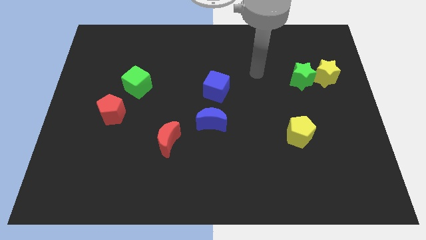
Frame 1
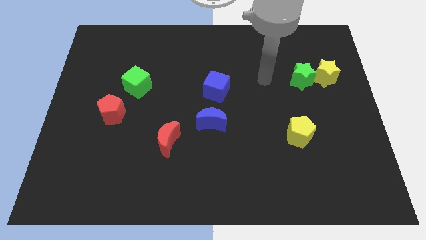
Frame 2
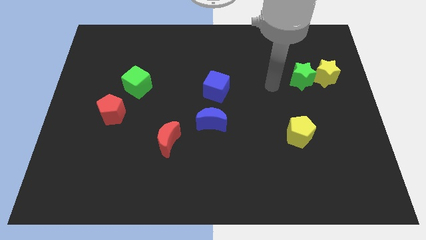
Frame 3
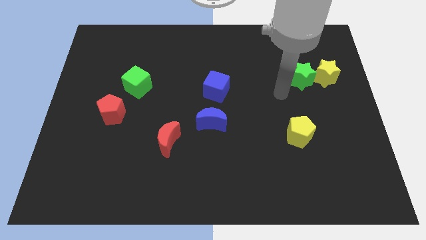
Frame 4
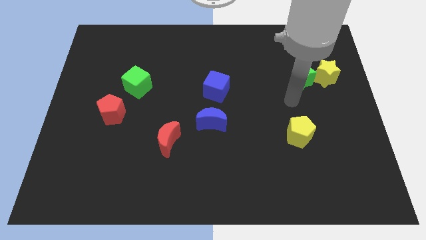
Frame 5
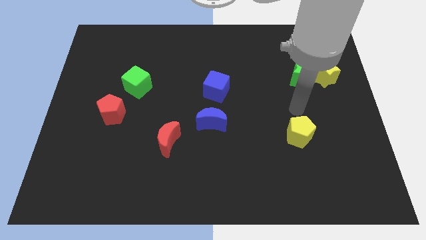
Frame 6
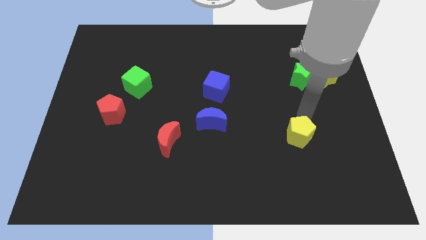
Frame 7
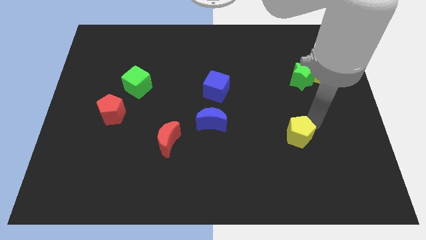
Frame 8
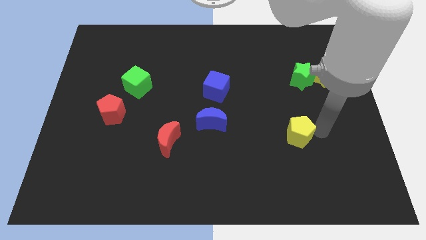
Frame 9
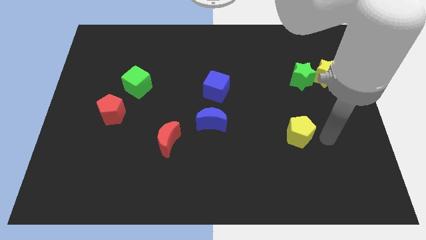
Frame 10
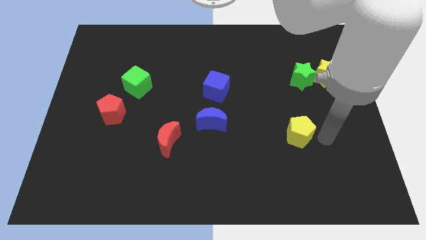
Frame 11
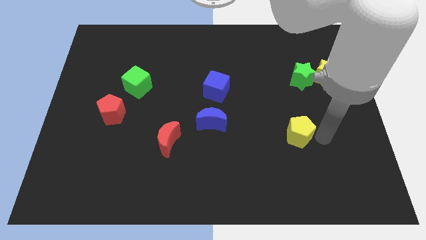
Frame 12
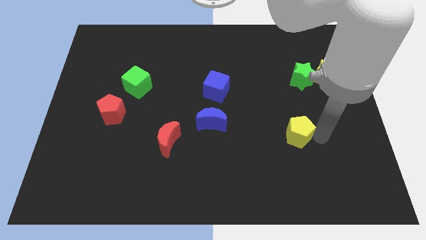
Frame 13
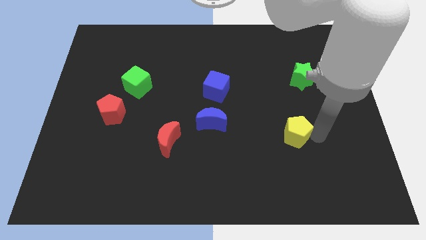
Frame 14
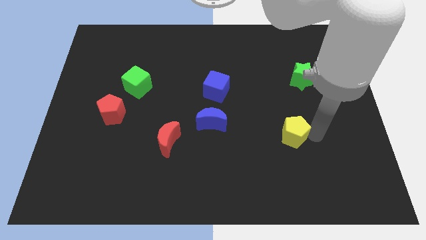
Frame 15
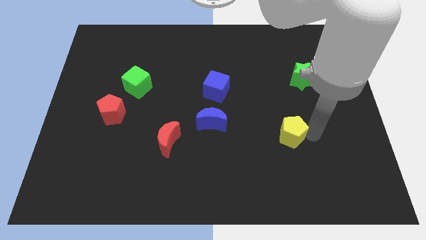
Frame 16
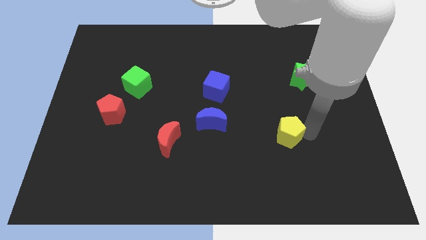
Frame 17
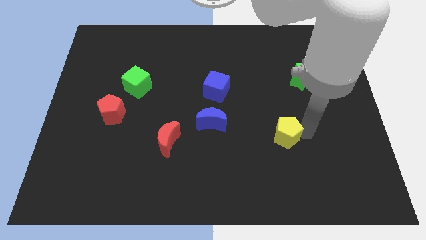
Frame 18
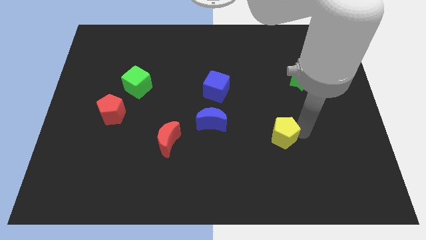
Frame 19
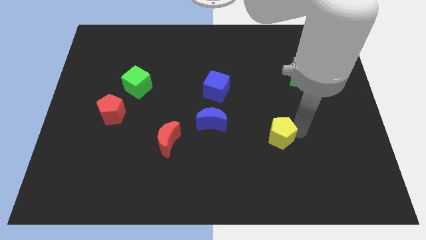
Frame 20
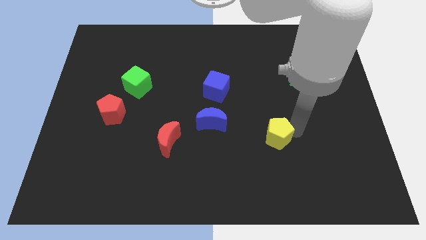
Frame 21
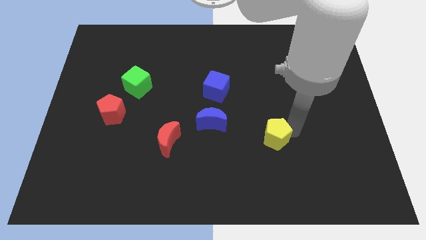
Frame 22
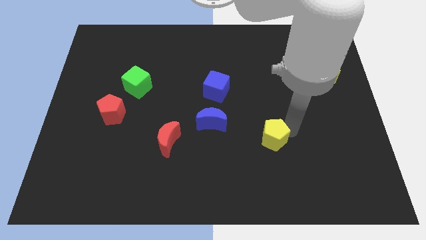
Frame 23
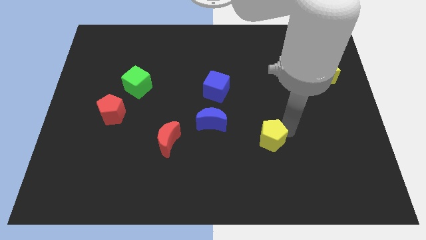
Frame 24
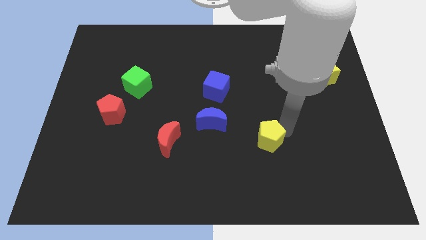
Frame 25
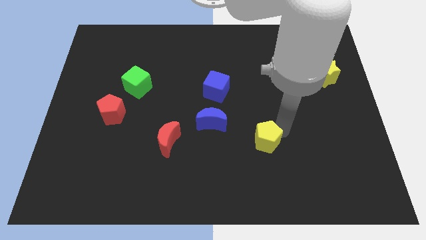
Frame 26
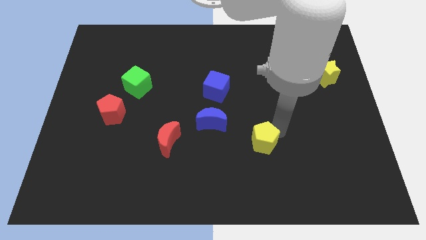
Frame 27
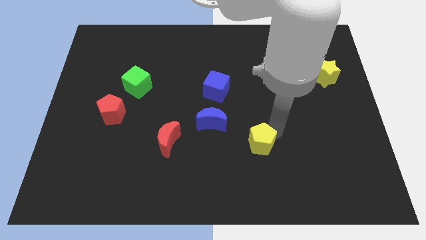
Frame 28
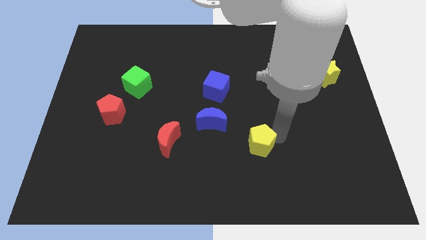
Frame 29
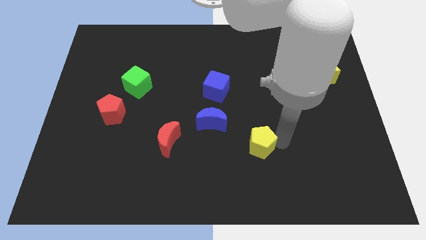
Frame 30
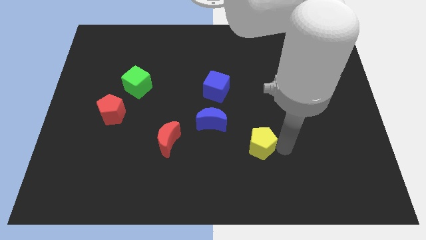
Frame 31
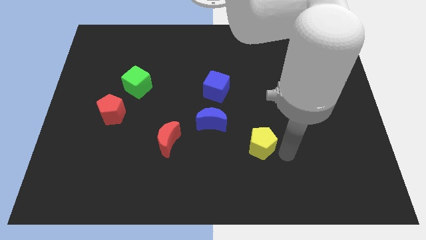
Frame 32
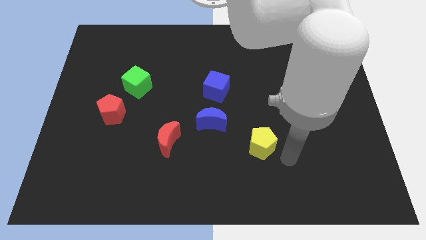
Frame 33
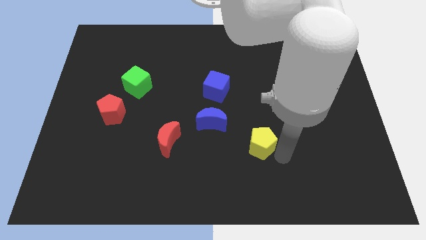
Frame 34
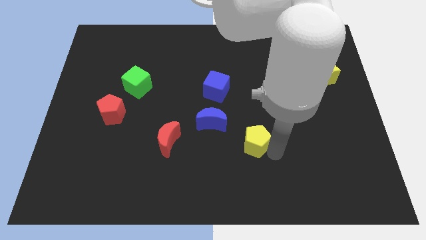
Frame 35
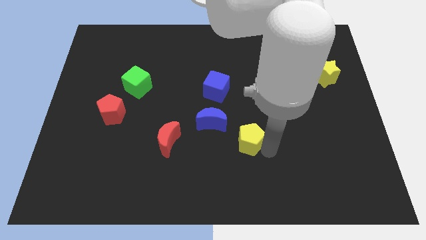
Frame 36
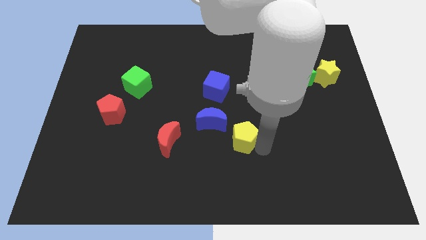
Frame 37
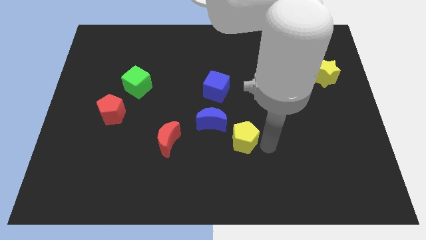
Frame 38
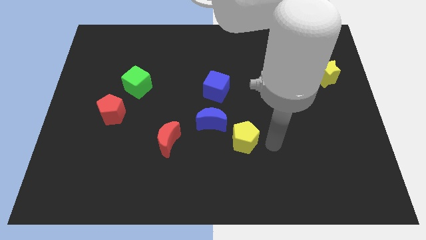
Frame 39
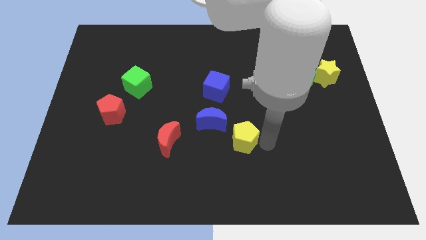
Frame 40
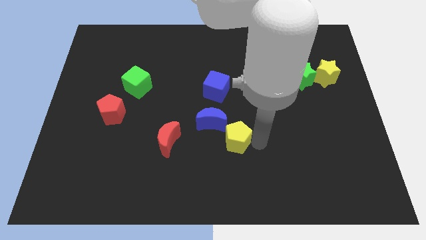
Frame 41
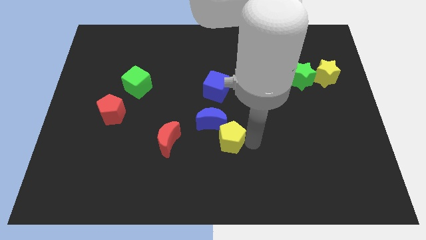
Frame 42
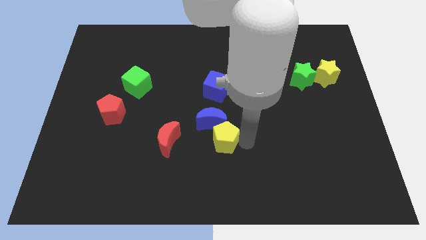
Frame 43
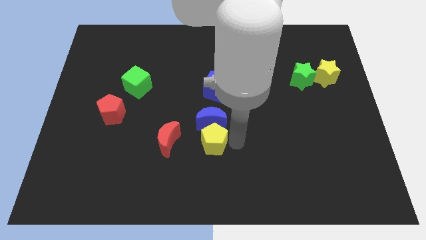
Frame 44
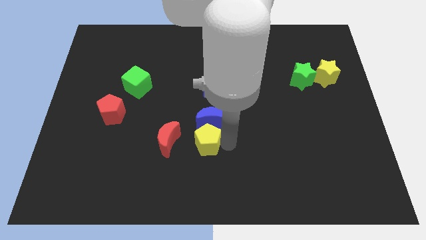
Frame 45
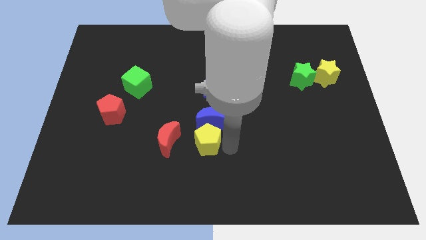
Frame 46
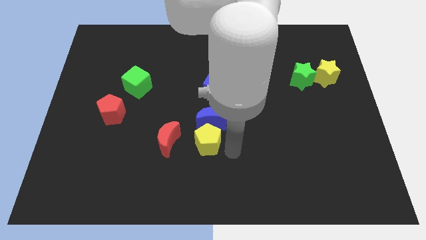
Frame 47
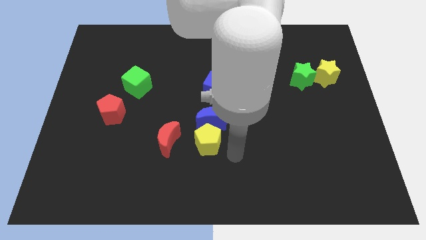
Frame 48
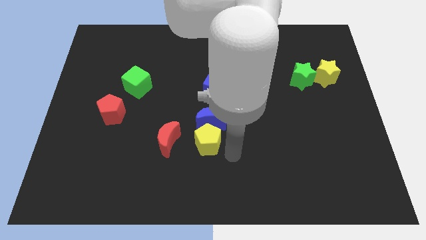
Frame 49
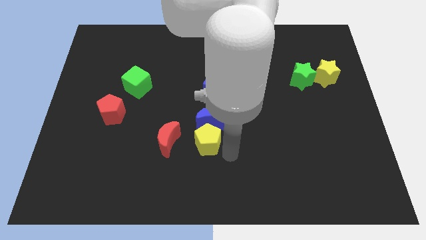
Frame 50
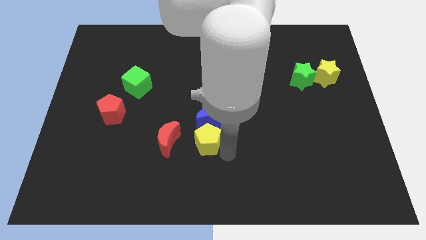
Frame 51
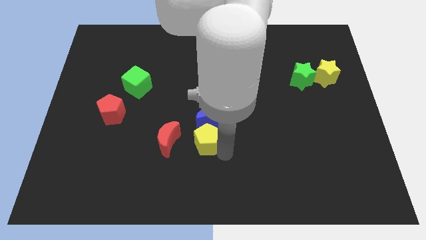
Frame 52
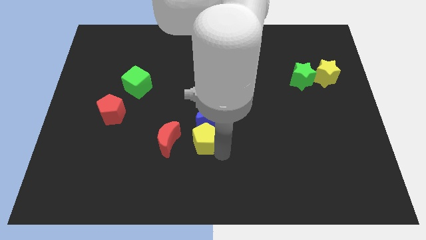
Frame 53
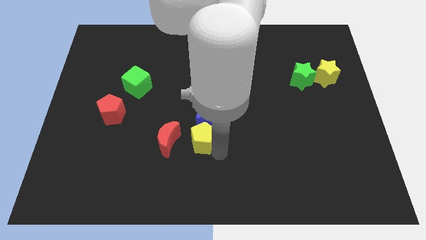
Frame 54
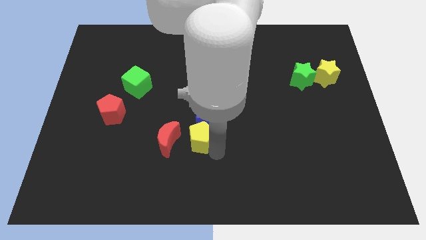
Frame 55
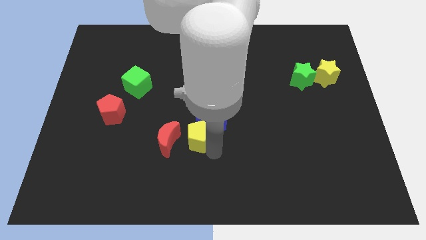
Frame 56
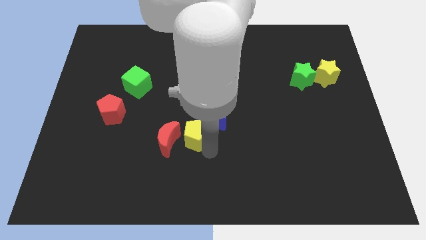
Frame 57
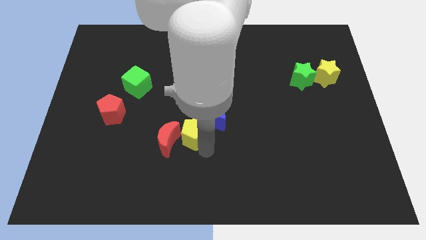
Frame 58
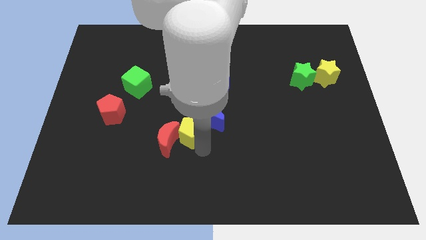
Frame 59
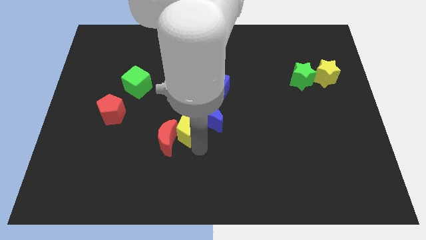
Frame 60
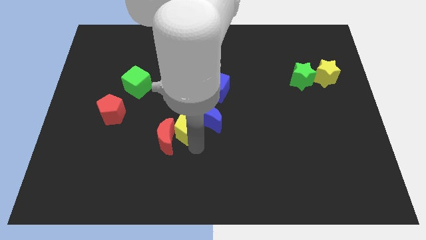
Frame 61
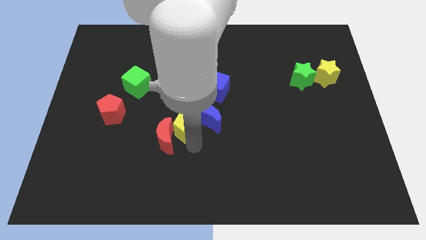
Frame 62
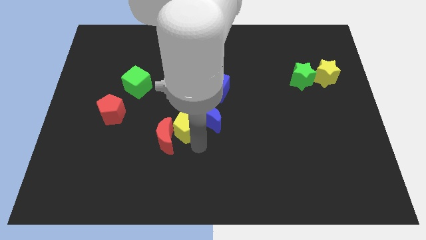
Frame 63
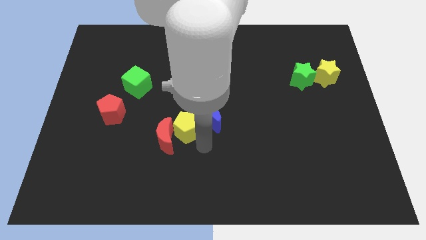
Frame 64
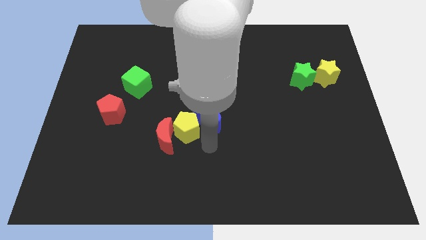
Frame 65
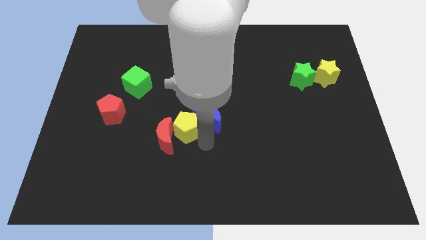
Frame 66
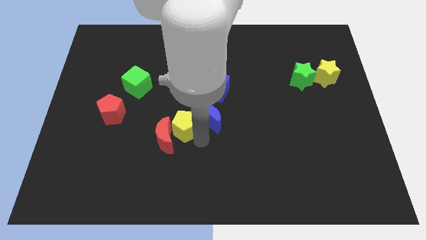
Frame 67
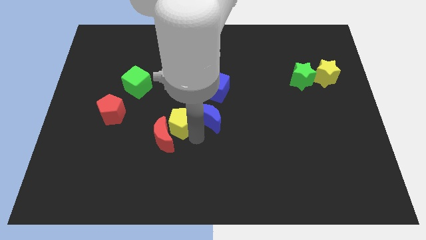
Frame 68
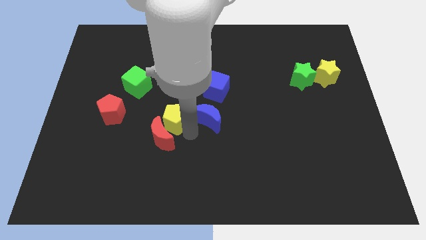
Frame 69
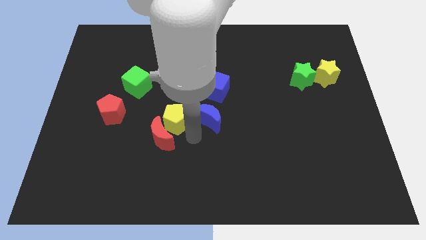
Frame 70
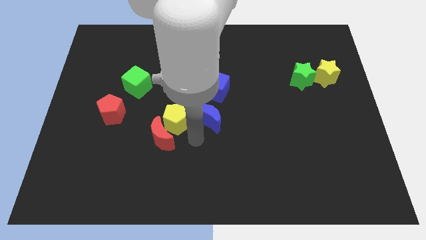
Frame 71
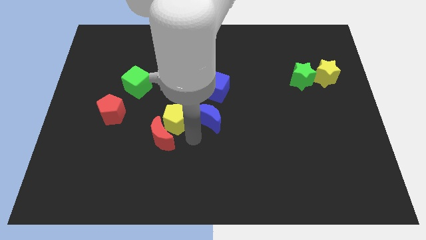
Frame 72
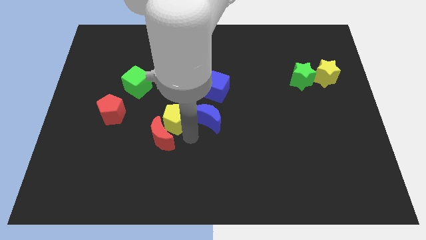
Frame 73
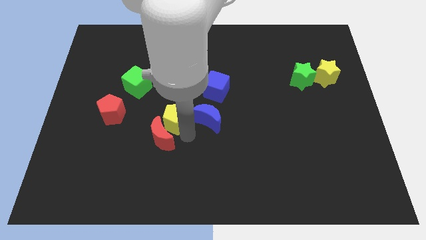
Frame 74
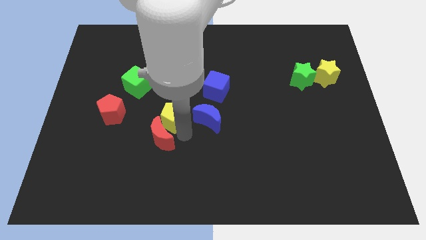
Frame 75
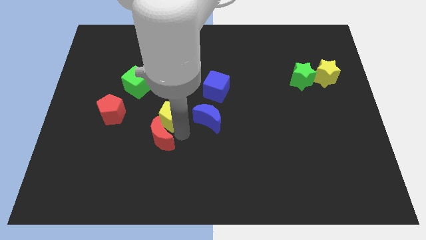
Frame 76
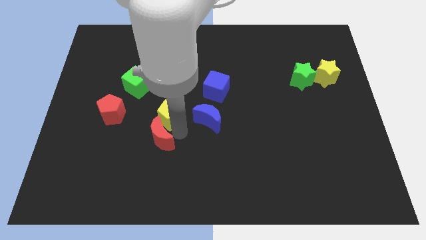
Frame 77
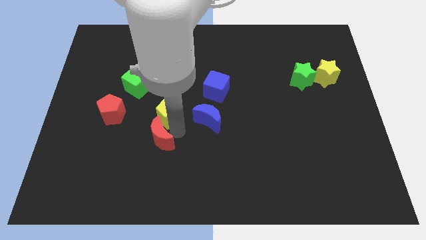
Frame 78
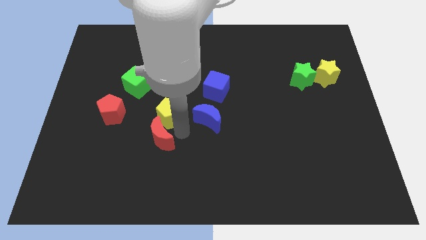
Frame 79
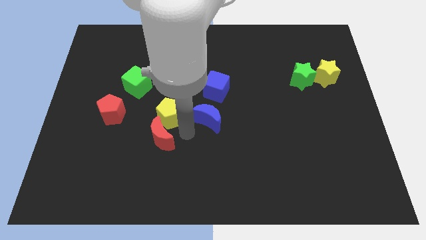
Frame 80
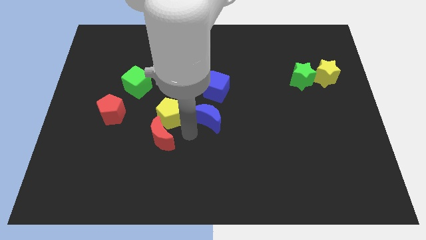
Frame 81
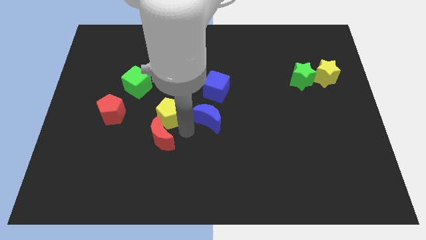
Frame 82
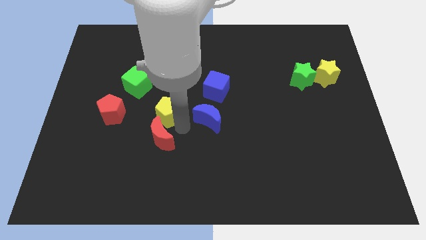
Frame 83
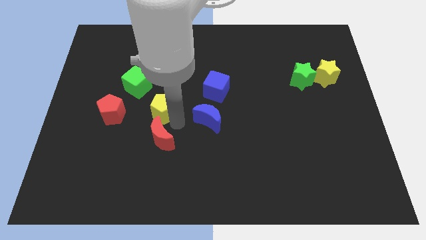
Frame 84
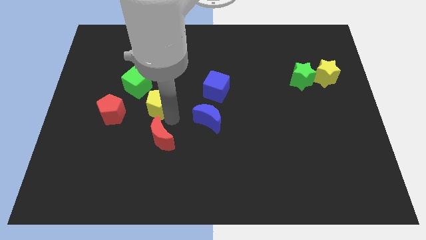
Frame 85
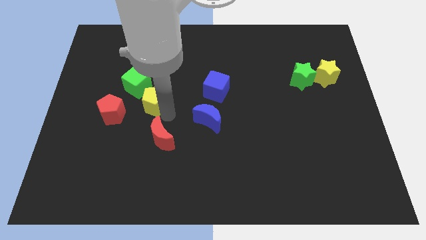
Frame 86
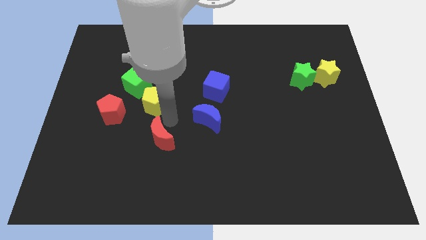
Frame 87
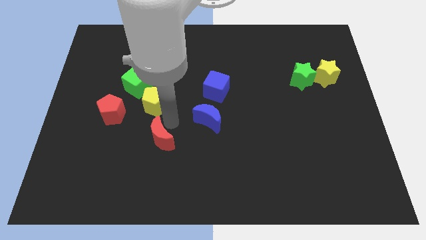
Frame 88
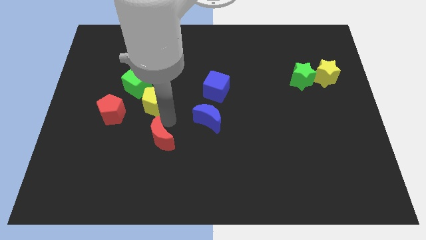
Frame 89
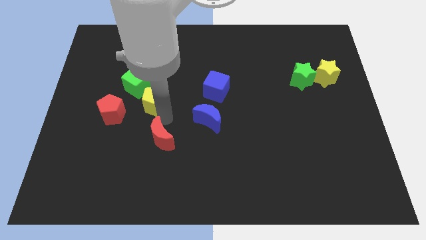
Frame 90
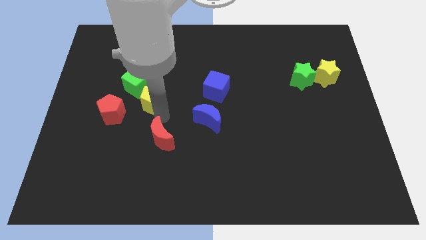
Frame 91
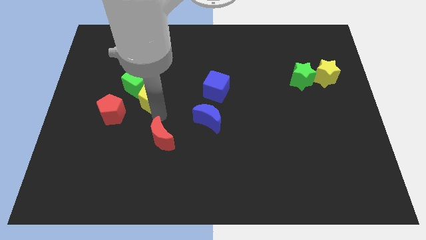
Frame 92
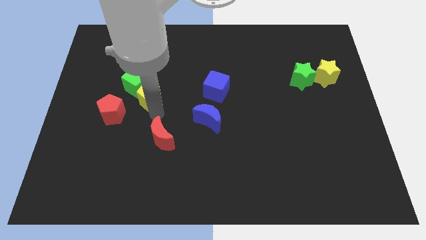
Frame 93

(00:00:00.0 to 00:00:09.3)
slide the yellow pentagon to the green cube
